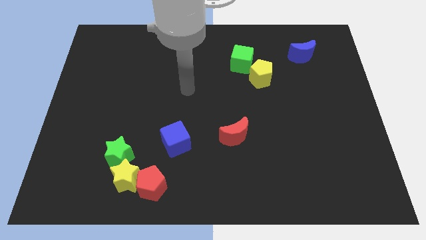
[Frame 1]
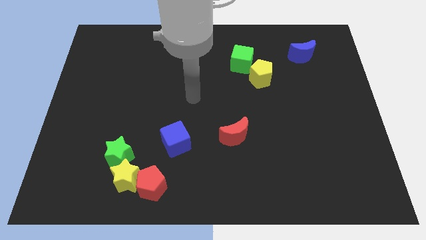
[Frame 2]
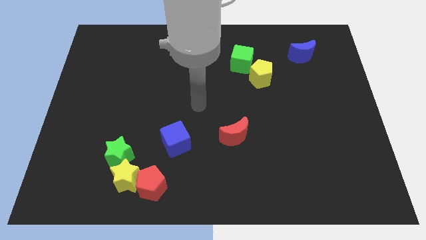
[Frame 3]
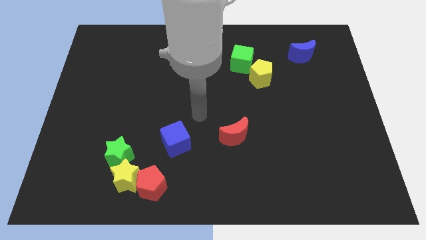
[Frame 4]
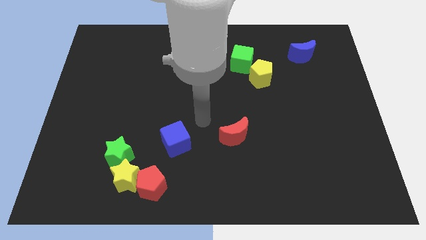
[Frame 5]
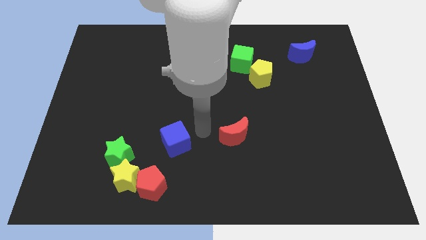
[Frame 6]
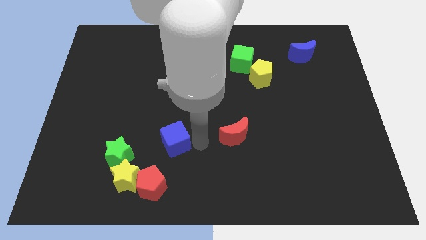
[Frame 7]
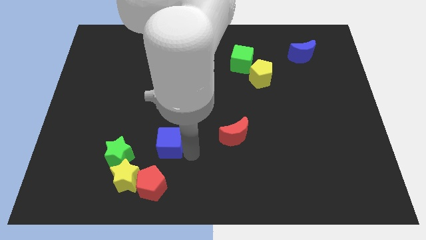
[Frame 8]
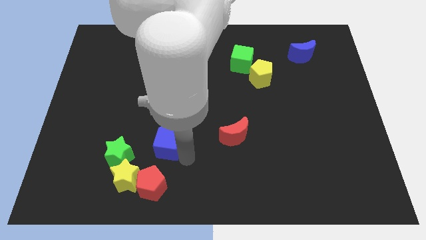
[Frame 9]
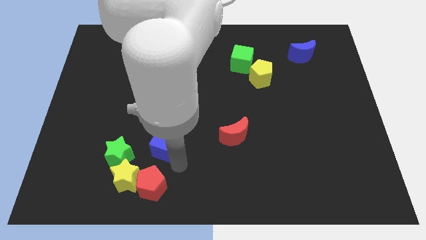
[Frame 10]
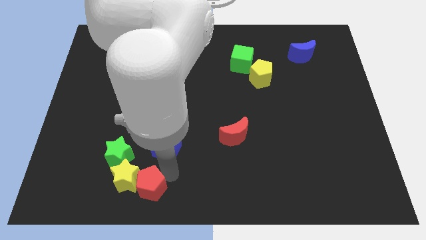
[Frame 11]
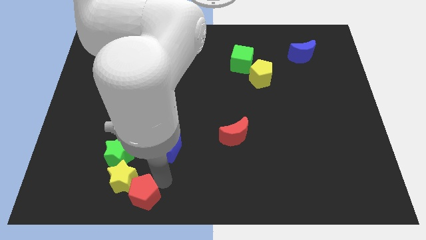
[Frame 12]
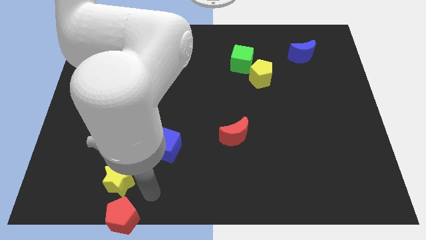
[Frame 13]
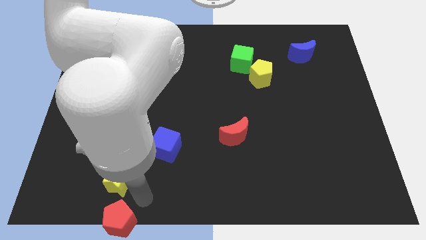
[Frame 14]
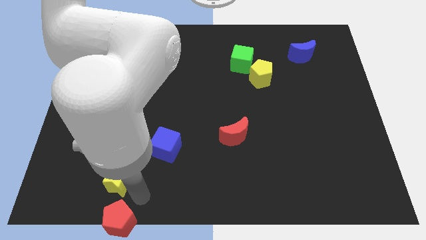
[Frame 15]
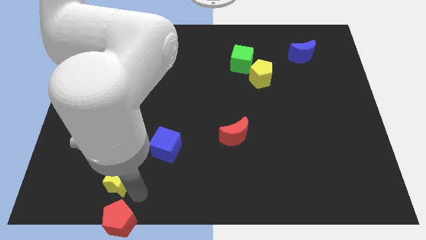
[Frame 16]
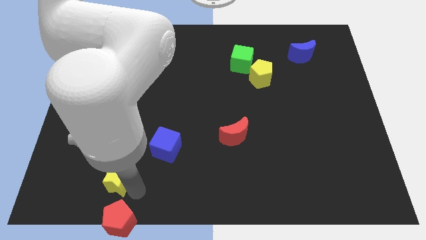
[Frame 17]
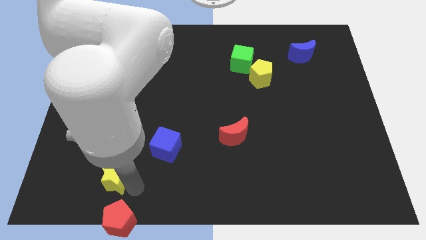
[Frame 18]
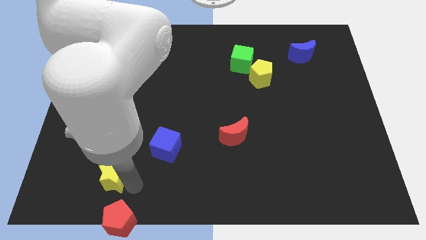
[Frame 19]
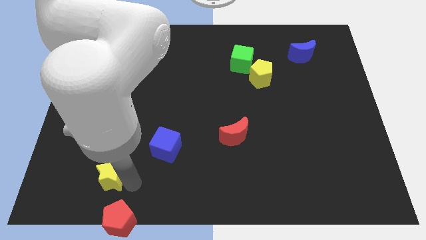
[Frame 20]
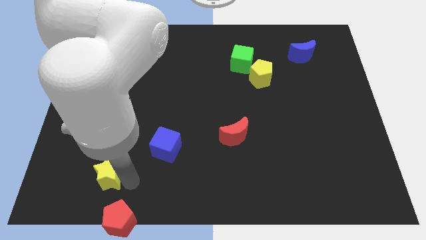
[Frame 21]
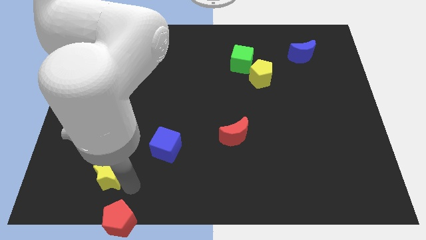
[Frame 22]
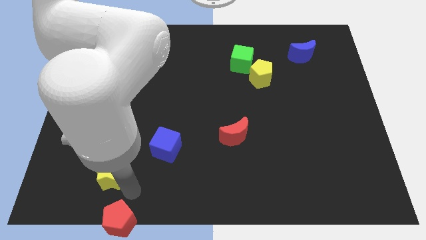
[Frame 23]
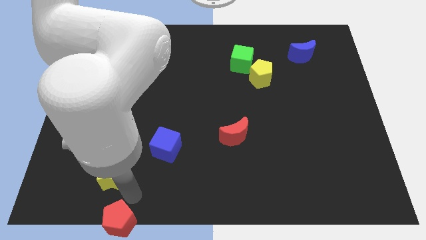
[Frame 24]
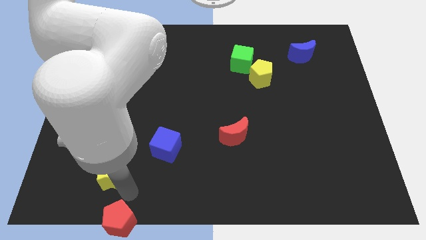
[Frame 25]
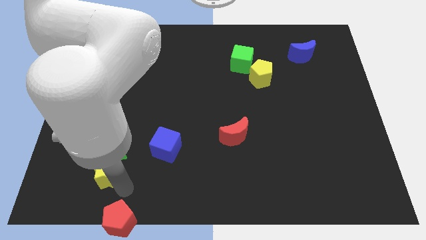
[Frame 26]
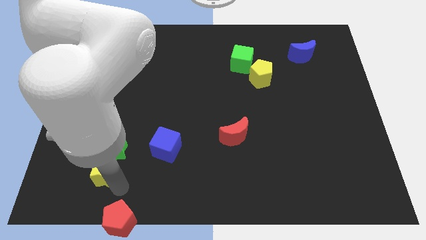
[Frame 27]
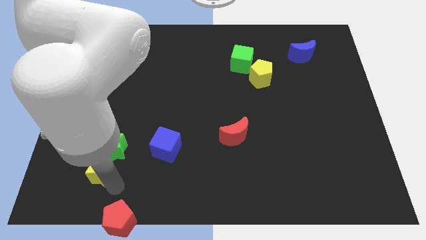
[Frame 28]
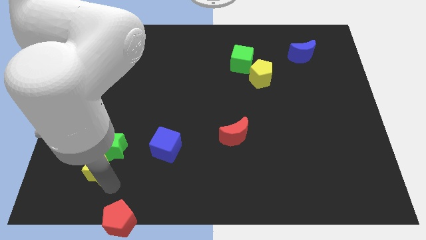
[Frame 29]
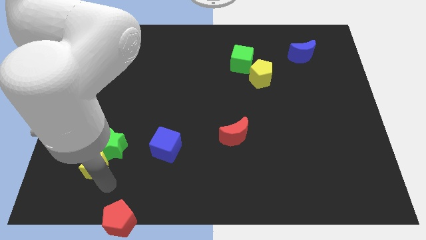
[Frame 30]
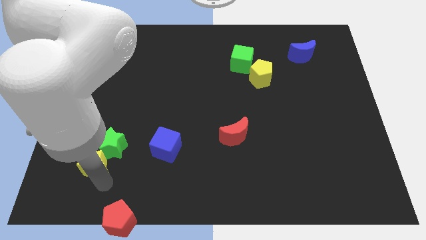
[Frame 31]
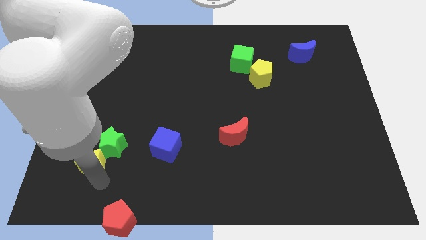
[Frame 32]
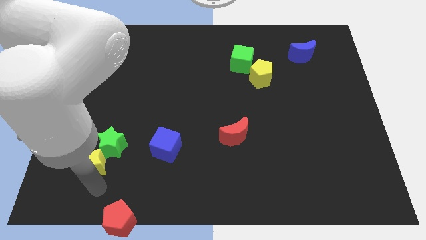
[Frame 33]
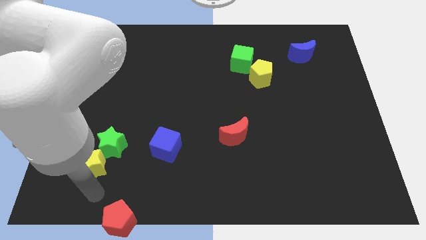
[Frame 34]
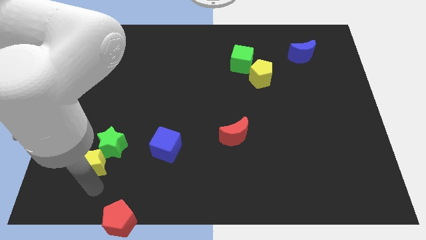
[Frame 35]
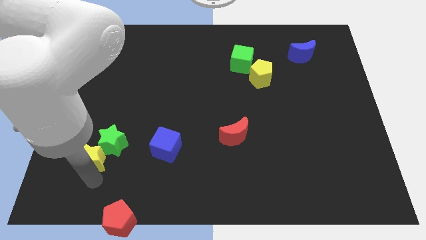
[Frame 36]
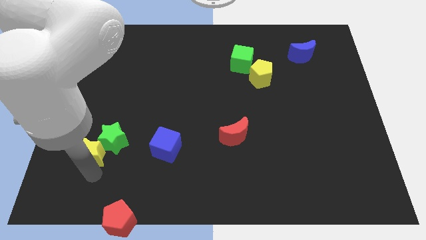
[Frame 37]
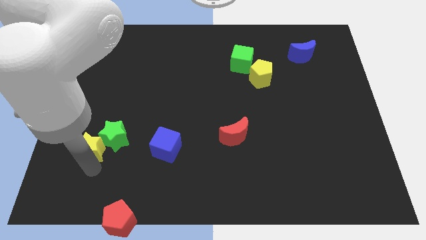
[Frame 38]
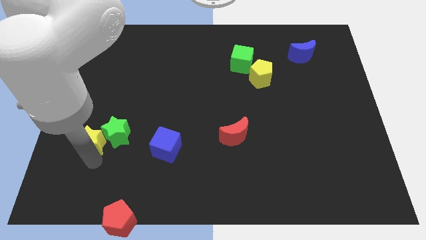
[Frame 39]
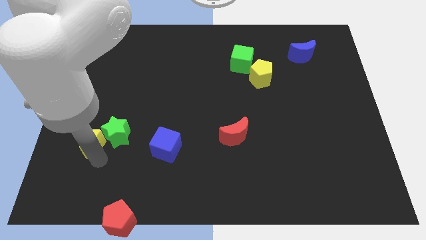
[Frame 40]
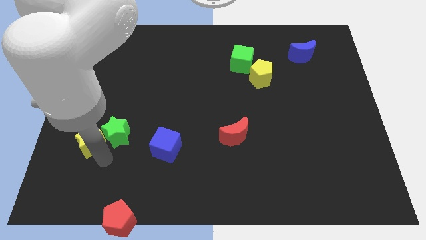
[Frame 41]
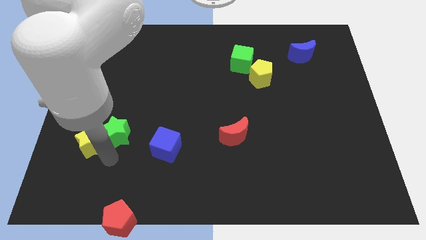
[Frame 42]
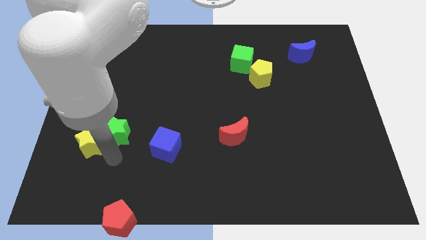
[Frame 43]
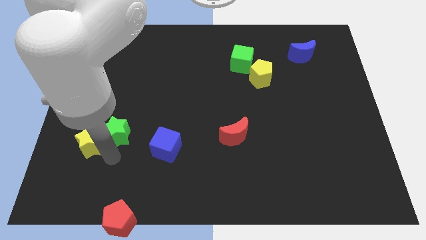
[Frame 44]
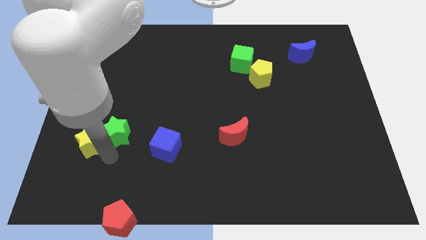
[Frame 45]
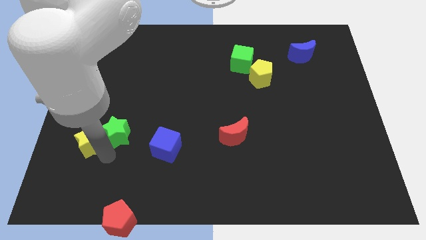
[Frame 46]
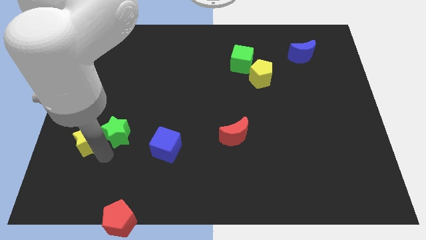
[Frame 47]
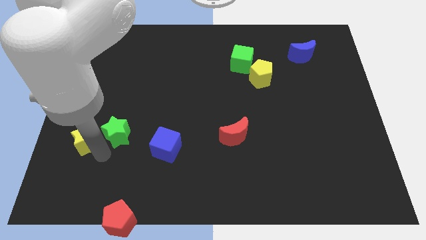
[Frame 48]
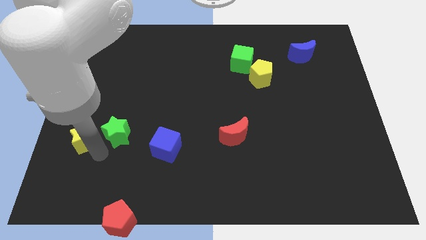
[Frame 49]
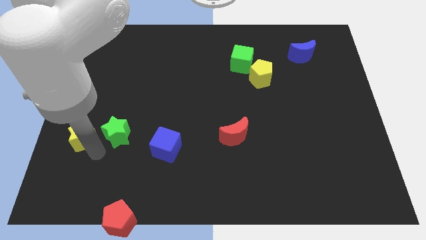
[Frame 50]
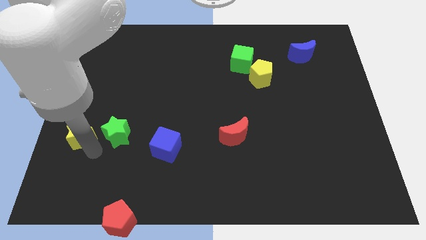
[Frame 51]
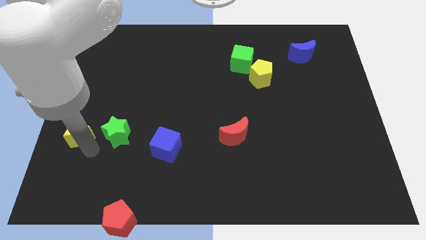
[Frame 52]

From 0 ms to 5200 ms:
push the yellow star to the left side

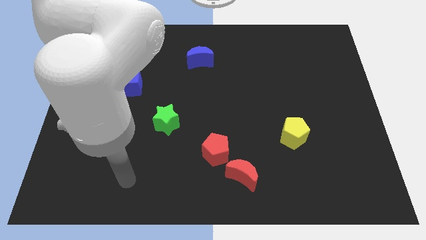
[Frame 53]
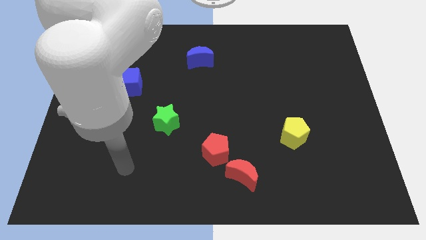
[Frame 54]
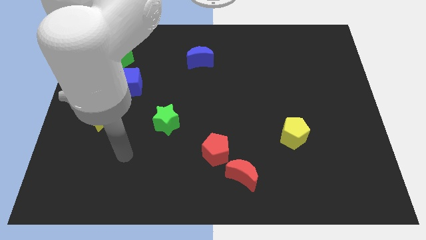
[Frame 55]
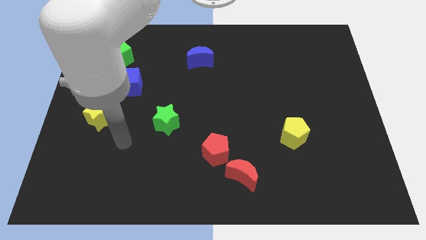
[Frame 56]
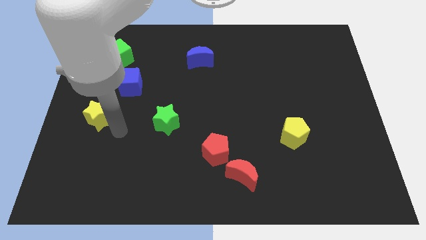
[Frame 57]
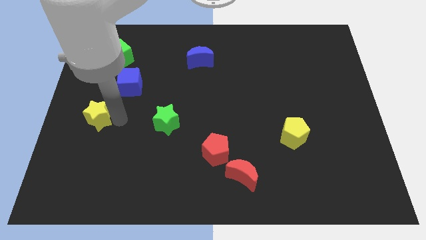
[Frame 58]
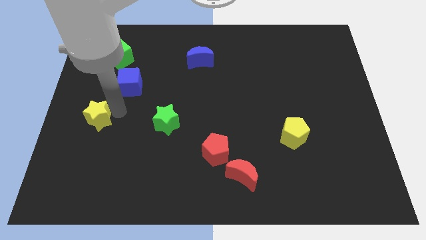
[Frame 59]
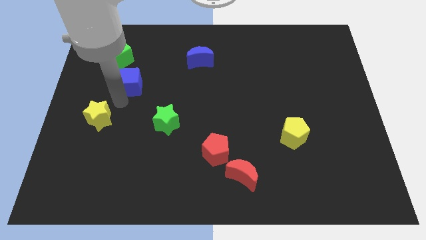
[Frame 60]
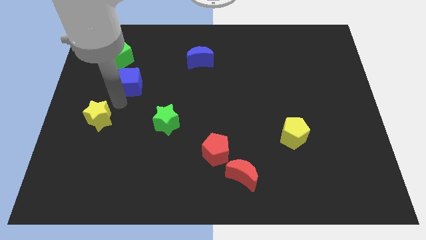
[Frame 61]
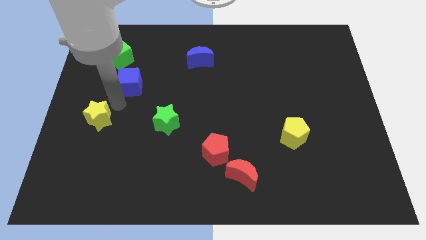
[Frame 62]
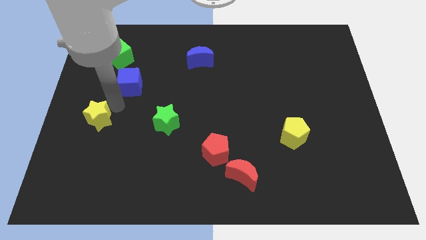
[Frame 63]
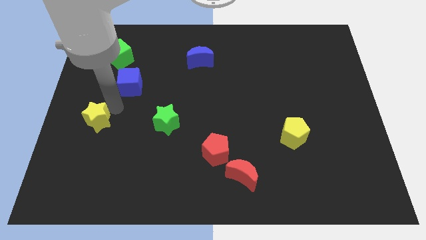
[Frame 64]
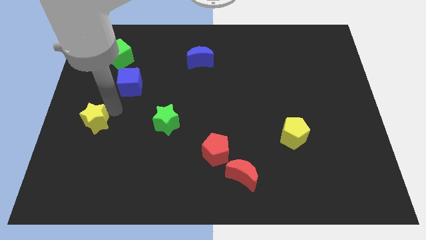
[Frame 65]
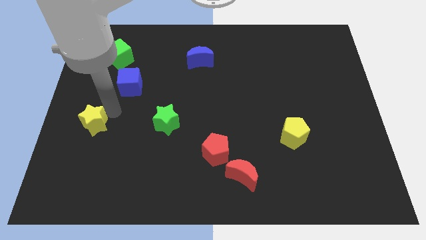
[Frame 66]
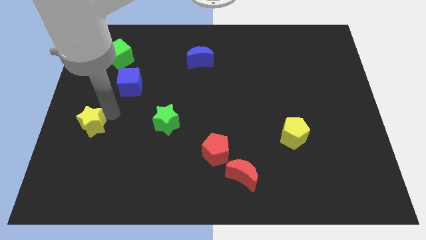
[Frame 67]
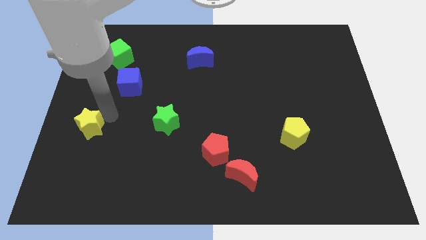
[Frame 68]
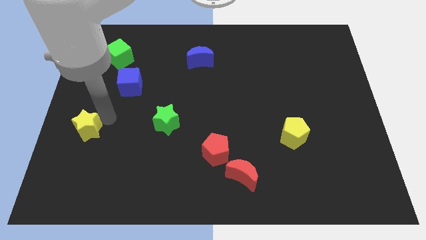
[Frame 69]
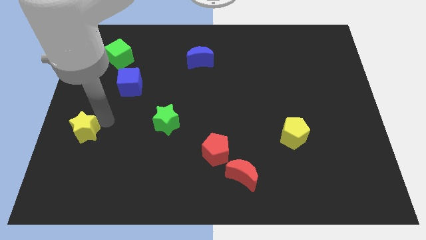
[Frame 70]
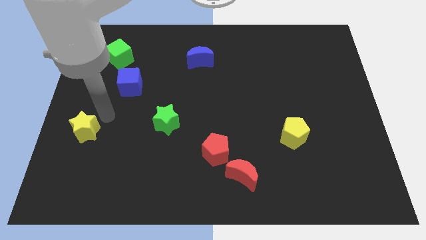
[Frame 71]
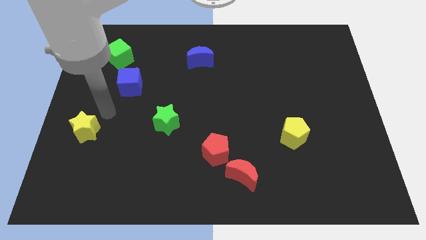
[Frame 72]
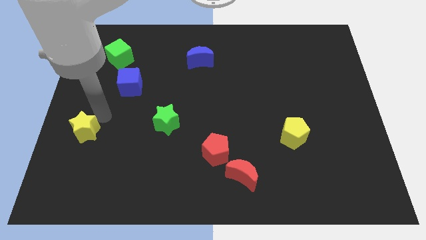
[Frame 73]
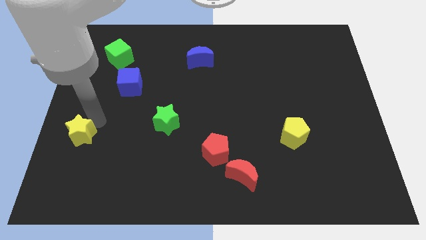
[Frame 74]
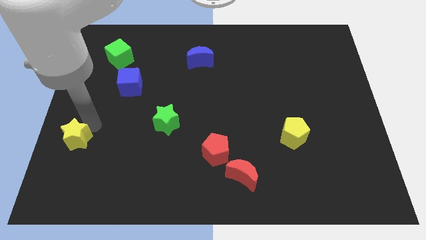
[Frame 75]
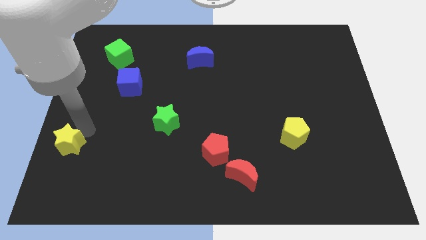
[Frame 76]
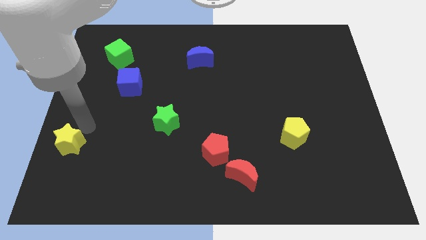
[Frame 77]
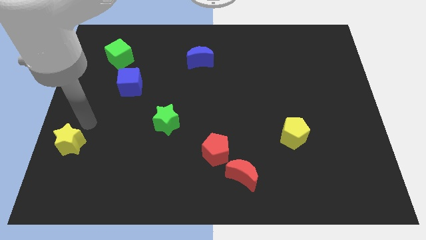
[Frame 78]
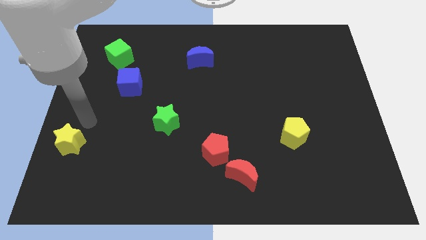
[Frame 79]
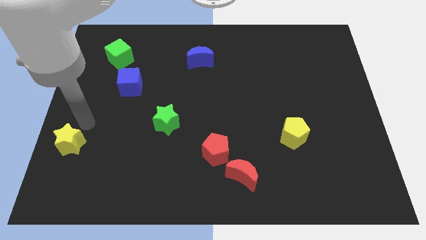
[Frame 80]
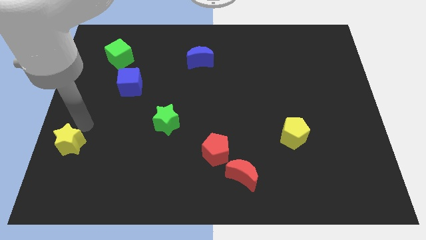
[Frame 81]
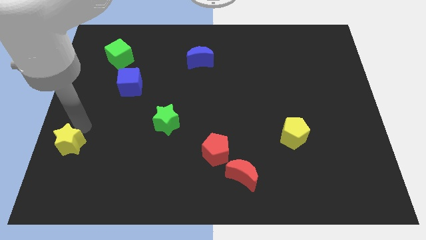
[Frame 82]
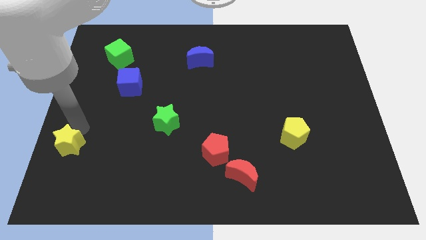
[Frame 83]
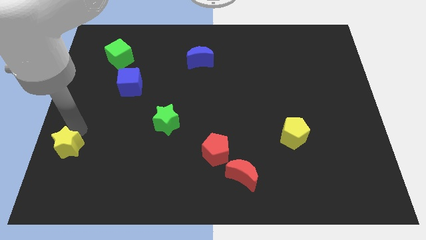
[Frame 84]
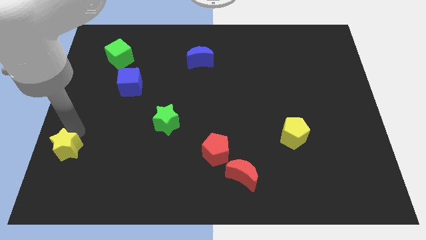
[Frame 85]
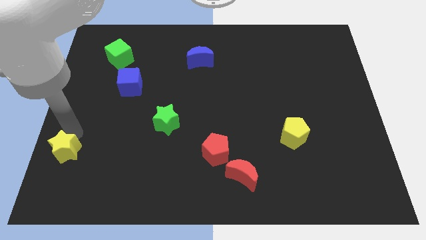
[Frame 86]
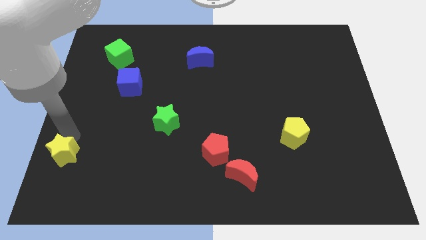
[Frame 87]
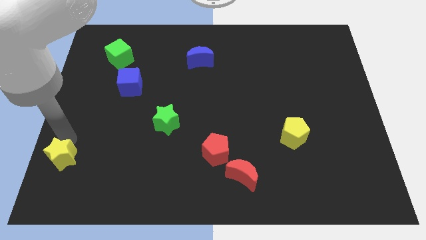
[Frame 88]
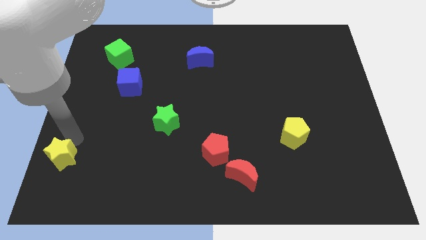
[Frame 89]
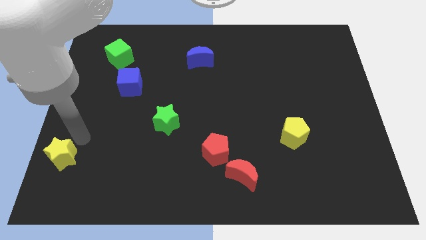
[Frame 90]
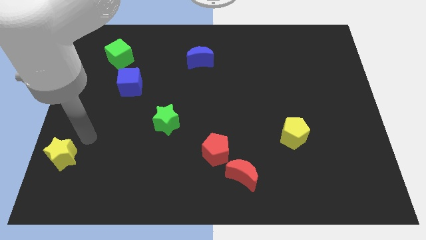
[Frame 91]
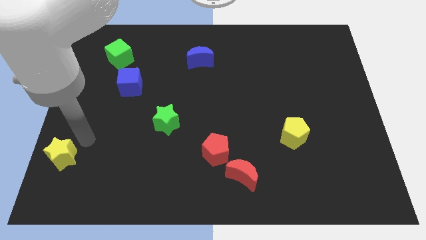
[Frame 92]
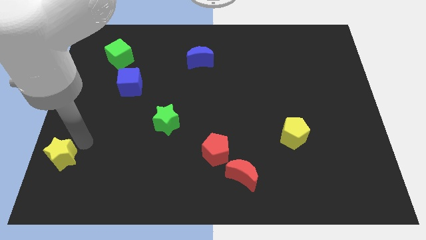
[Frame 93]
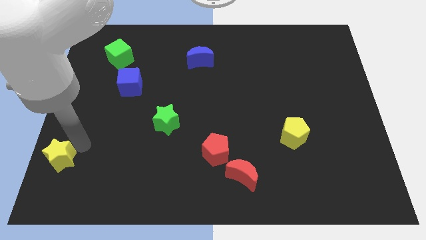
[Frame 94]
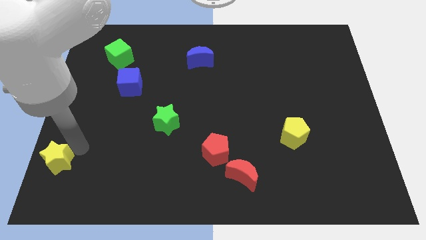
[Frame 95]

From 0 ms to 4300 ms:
move the yellow star to the bottom left corner
